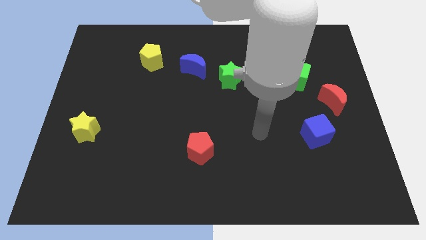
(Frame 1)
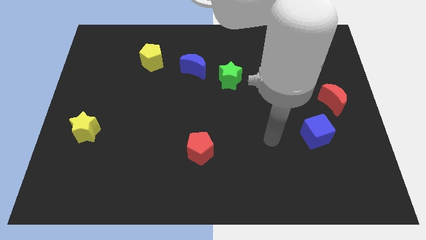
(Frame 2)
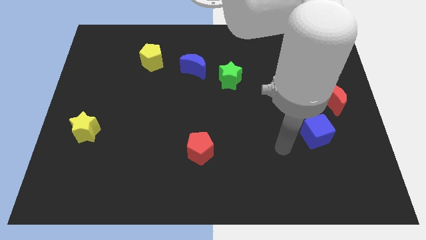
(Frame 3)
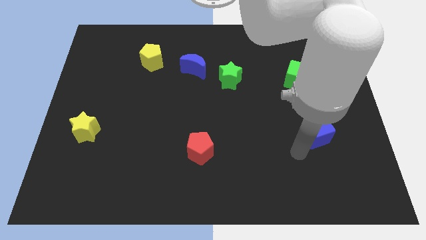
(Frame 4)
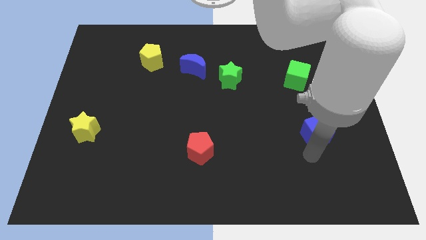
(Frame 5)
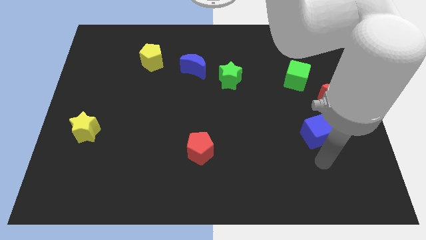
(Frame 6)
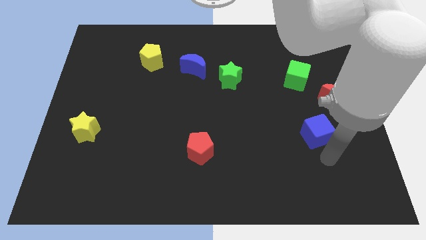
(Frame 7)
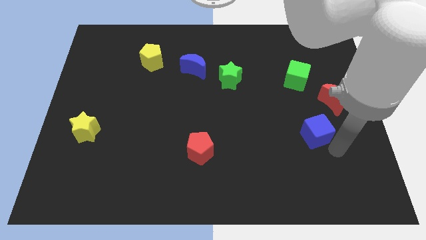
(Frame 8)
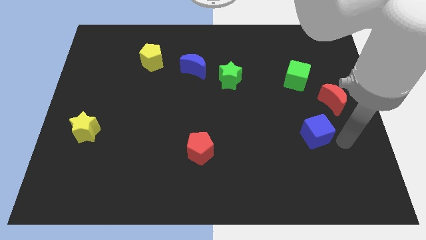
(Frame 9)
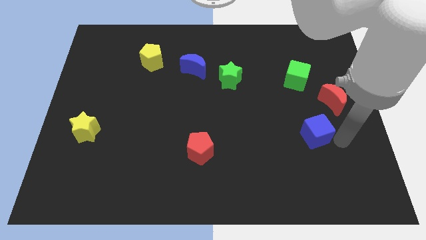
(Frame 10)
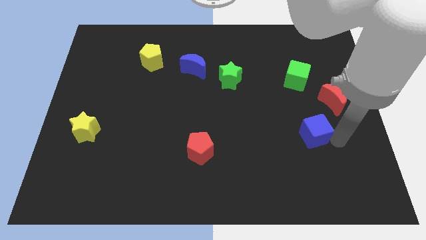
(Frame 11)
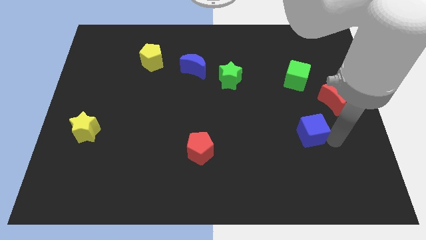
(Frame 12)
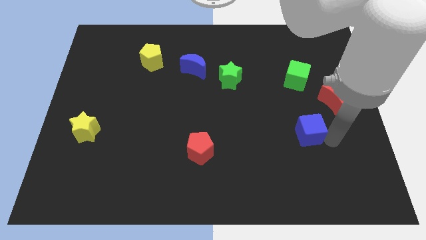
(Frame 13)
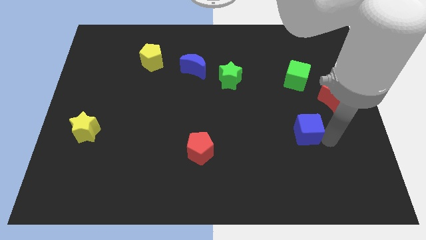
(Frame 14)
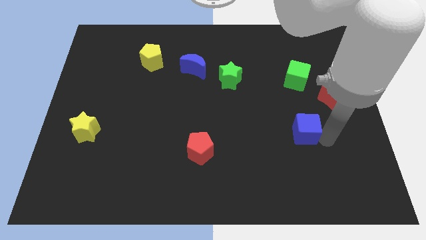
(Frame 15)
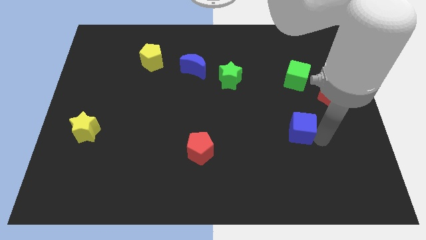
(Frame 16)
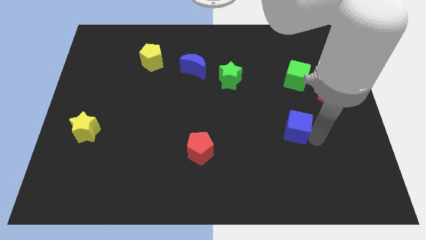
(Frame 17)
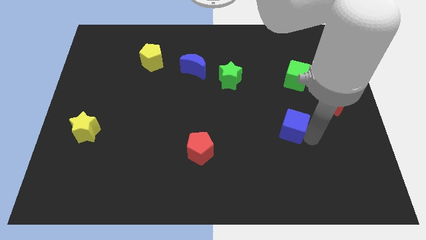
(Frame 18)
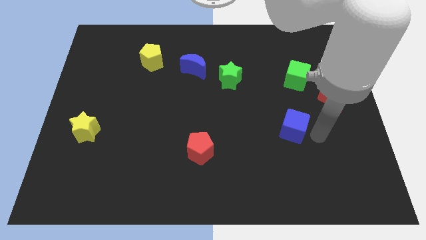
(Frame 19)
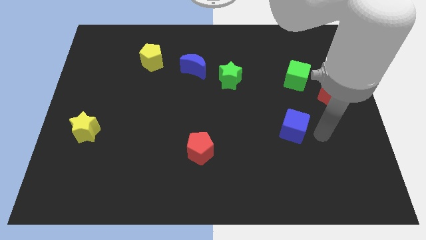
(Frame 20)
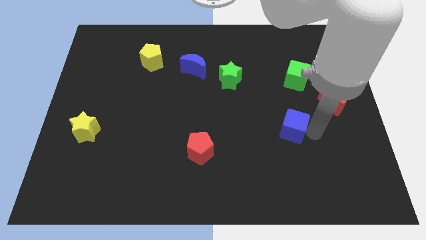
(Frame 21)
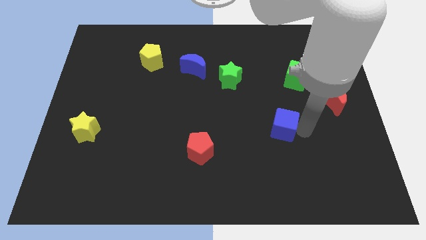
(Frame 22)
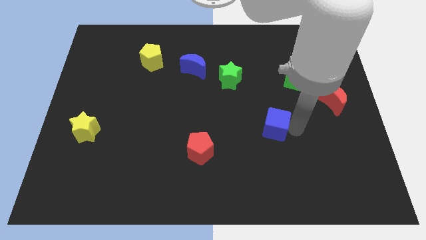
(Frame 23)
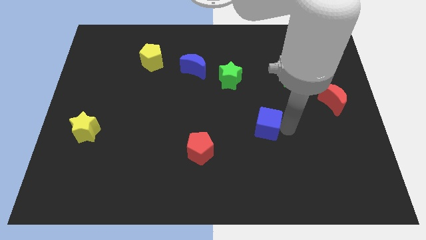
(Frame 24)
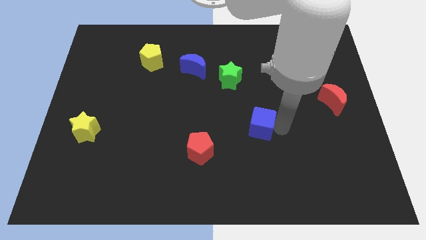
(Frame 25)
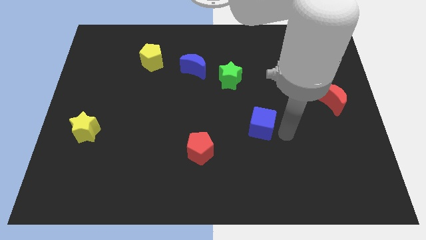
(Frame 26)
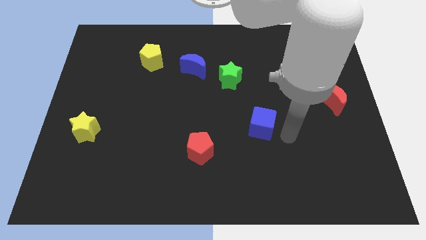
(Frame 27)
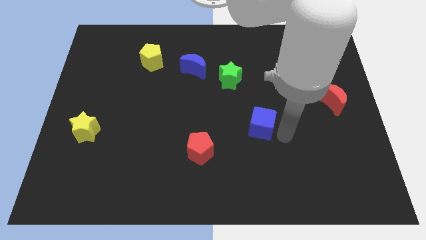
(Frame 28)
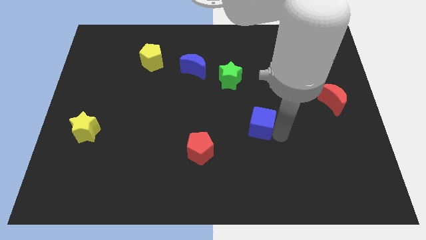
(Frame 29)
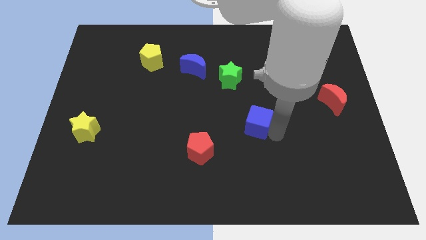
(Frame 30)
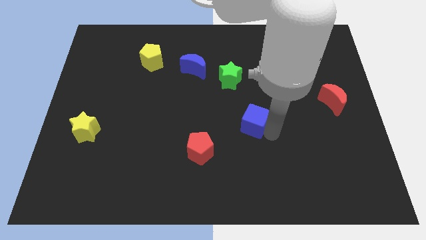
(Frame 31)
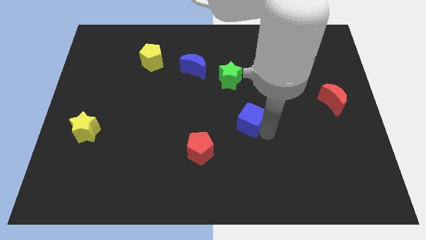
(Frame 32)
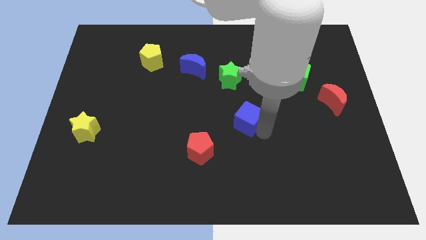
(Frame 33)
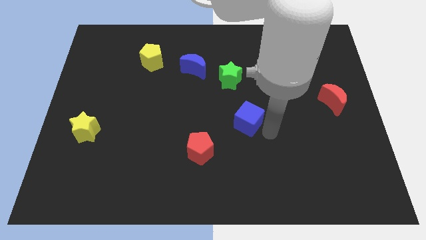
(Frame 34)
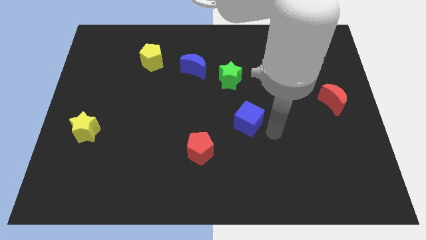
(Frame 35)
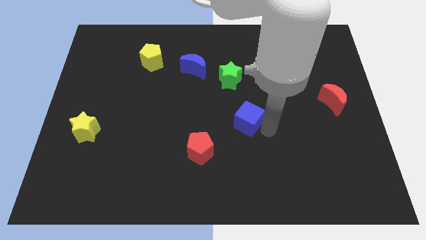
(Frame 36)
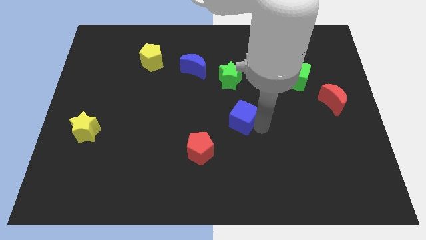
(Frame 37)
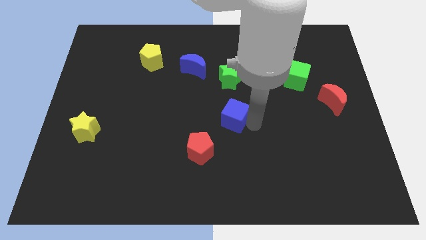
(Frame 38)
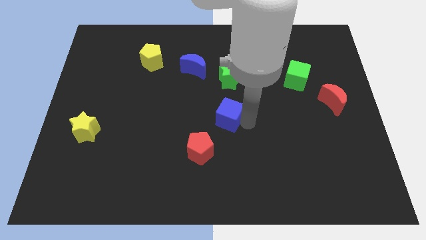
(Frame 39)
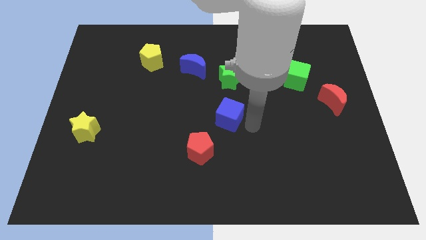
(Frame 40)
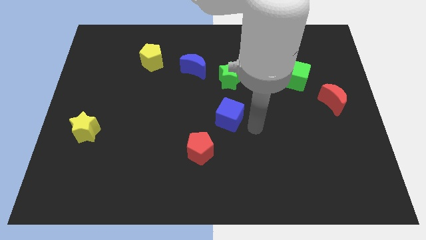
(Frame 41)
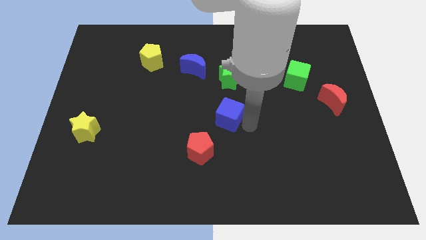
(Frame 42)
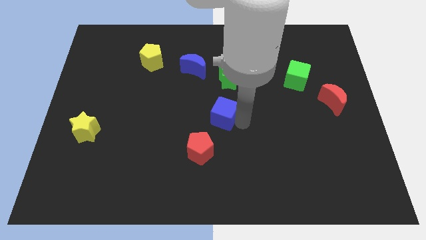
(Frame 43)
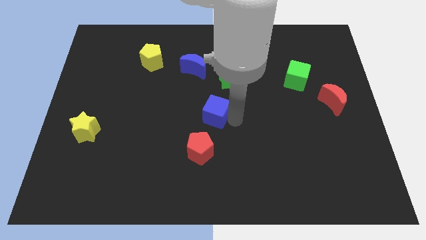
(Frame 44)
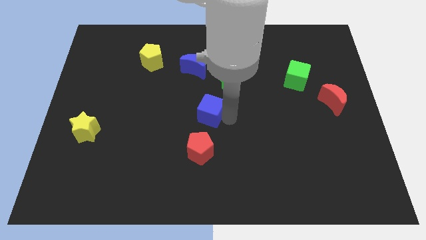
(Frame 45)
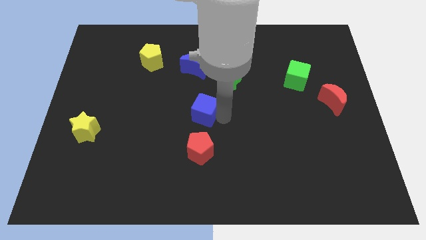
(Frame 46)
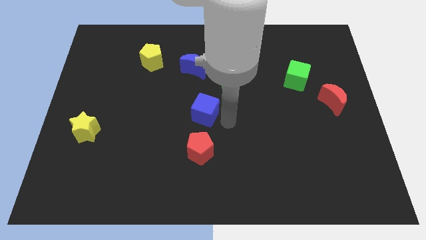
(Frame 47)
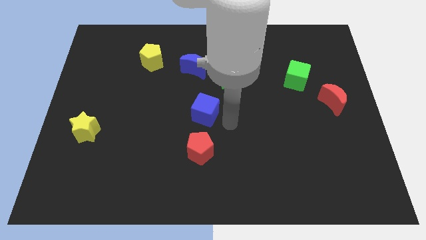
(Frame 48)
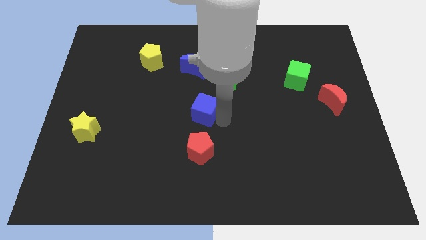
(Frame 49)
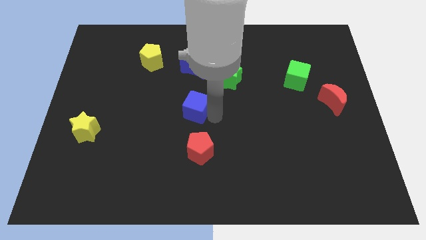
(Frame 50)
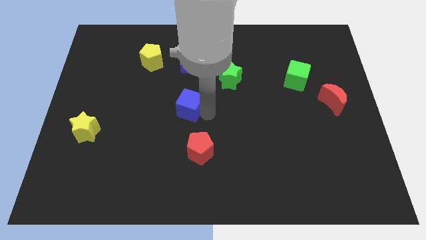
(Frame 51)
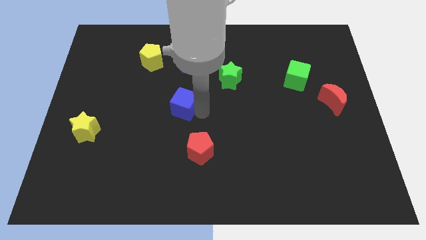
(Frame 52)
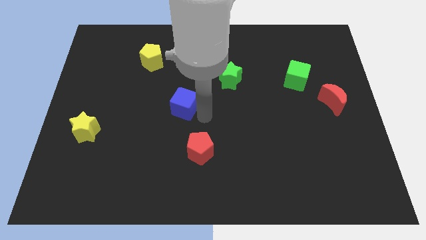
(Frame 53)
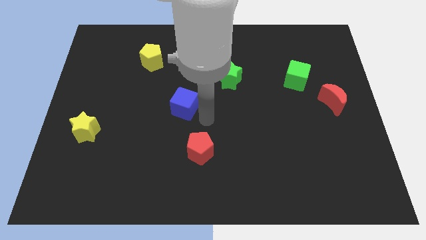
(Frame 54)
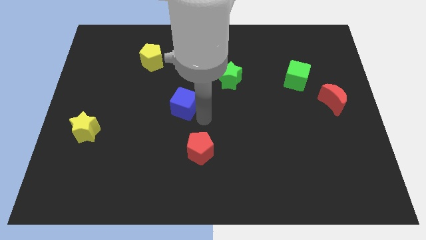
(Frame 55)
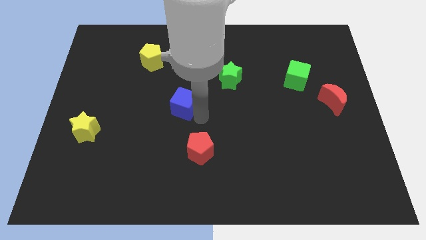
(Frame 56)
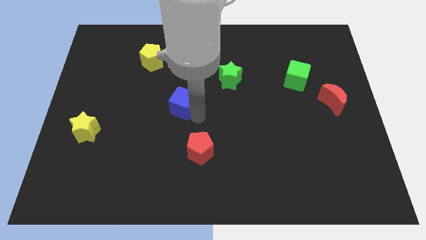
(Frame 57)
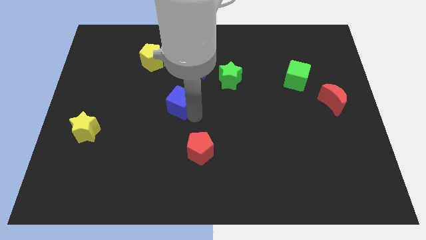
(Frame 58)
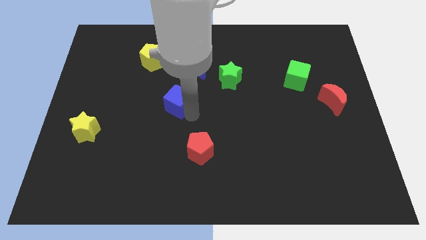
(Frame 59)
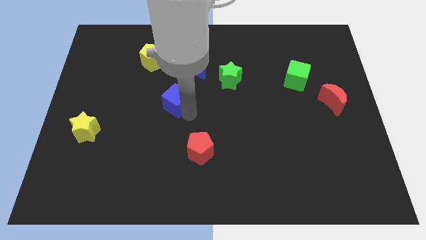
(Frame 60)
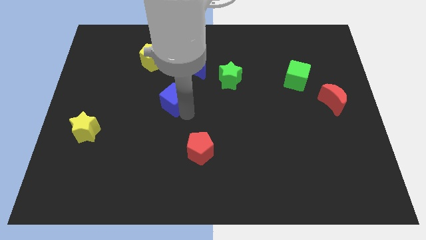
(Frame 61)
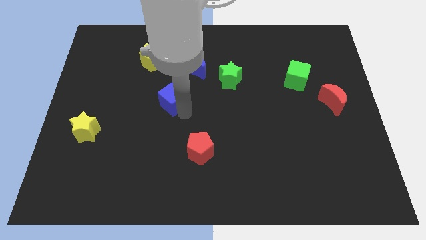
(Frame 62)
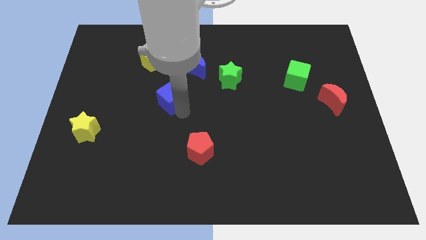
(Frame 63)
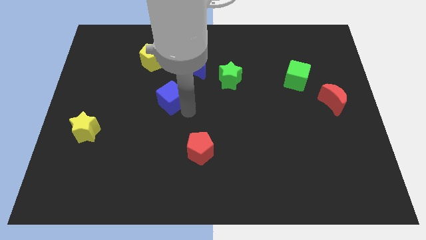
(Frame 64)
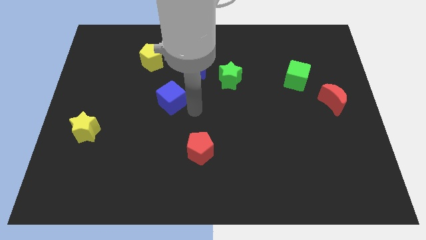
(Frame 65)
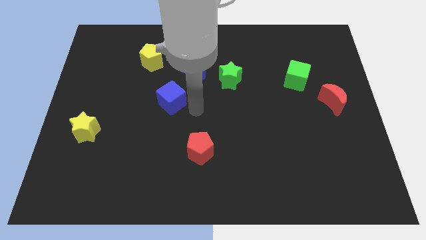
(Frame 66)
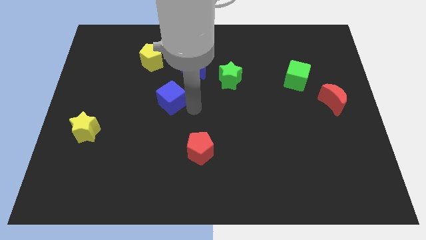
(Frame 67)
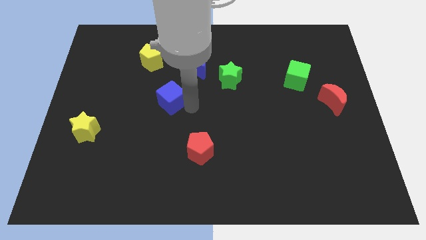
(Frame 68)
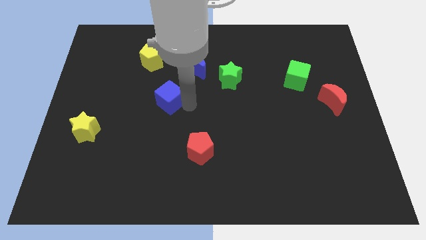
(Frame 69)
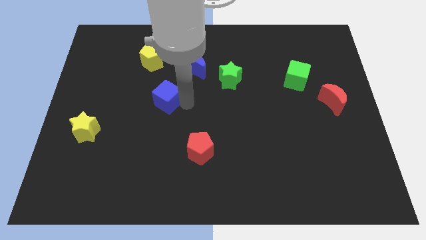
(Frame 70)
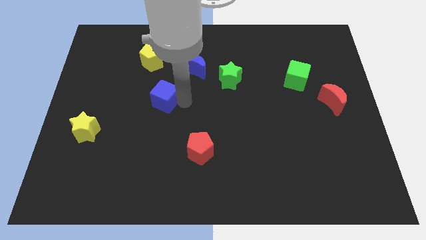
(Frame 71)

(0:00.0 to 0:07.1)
push the blue cube below the yellow pentagon
